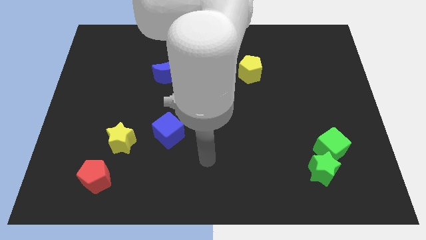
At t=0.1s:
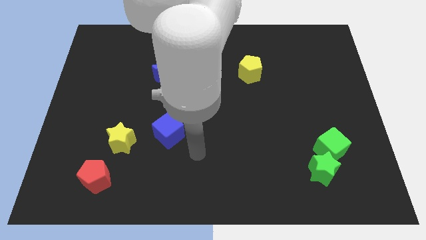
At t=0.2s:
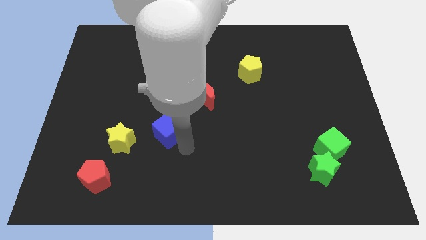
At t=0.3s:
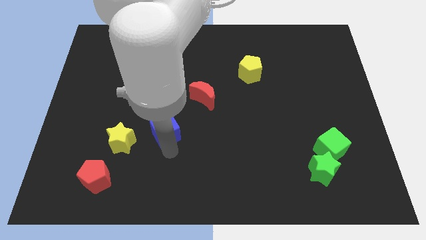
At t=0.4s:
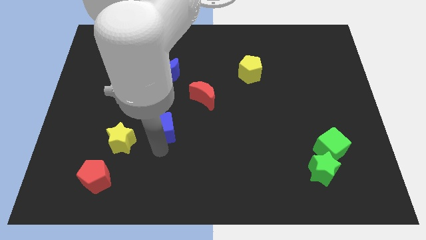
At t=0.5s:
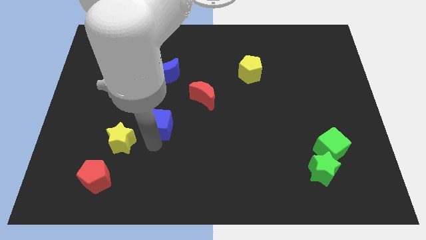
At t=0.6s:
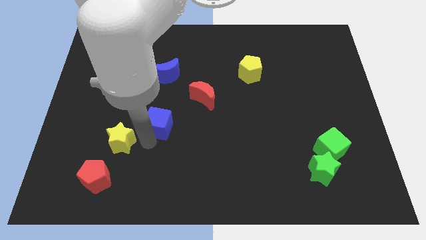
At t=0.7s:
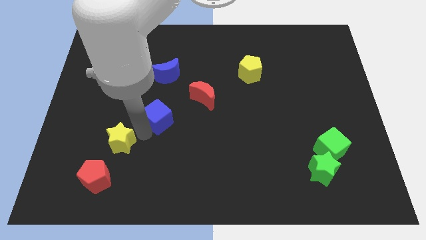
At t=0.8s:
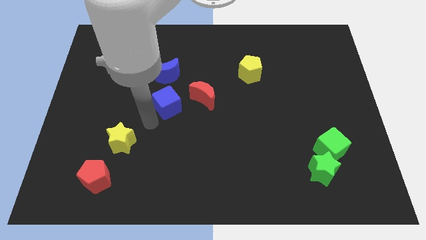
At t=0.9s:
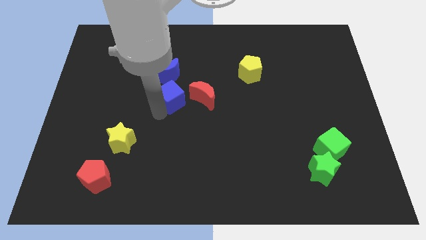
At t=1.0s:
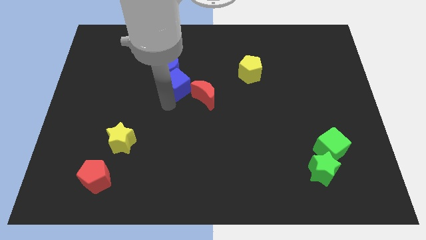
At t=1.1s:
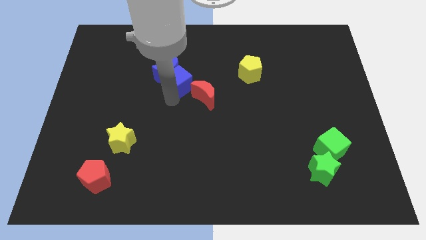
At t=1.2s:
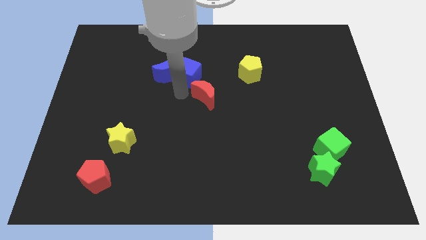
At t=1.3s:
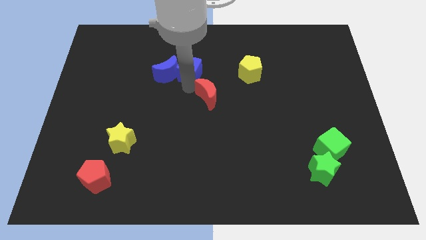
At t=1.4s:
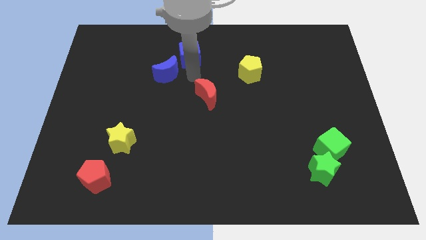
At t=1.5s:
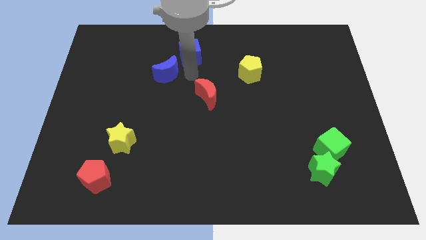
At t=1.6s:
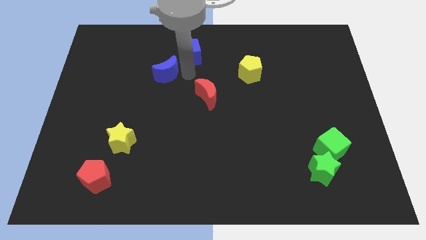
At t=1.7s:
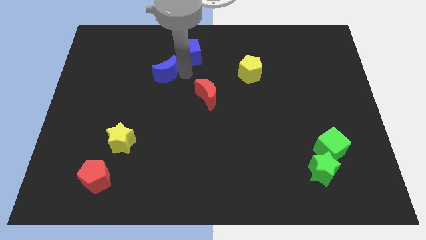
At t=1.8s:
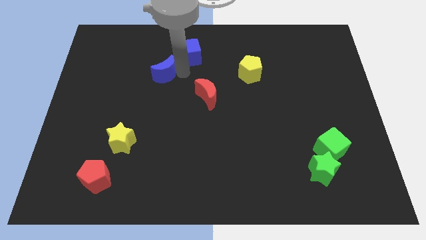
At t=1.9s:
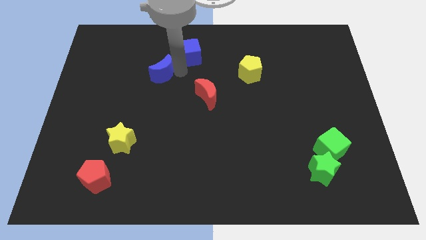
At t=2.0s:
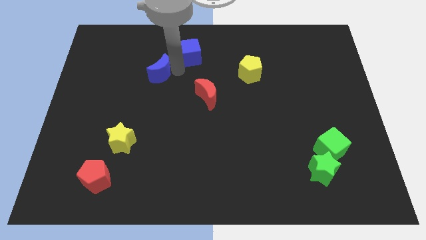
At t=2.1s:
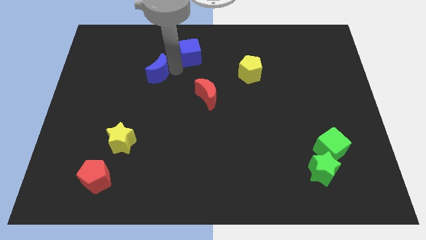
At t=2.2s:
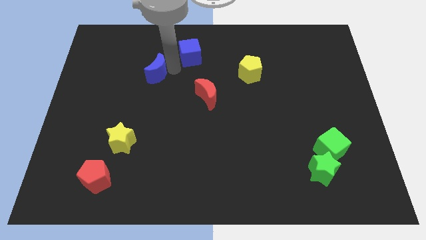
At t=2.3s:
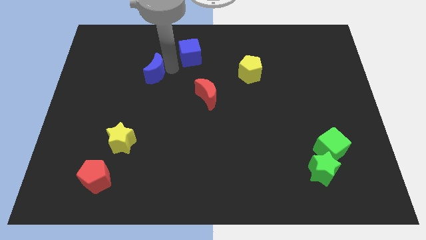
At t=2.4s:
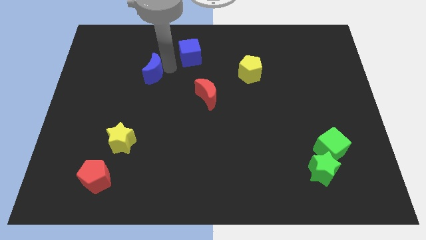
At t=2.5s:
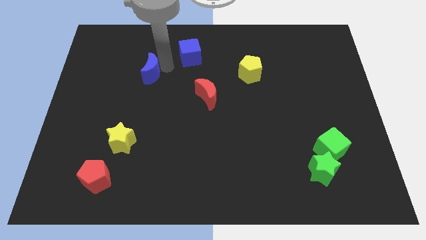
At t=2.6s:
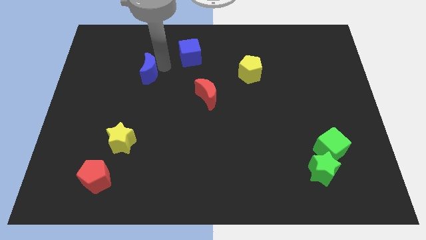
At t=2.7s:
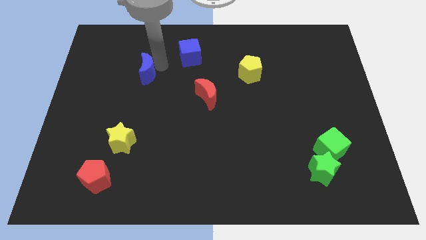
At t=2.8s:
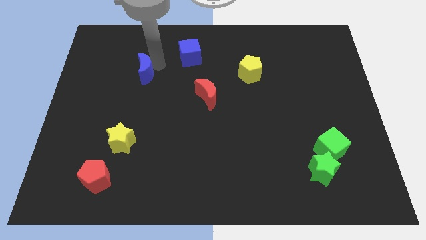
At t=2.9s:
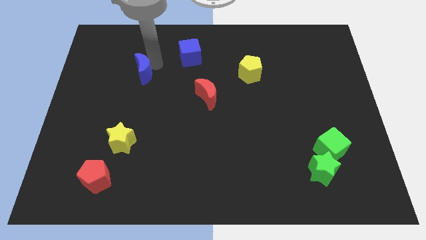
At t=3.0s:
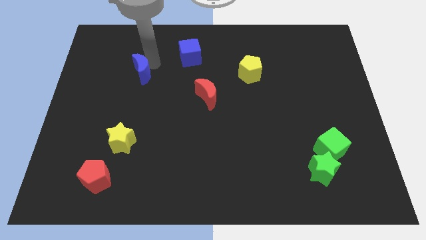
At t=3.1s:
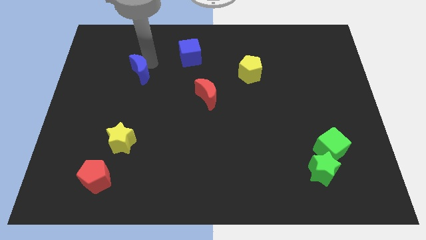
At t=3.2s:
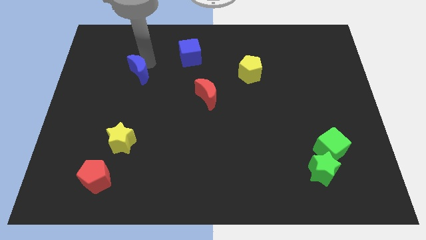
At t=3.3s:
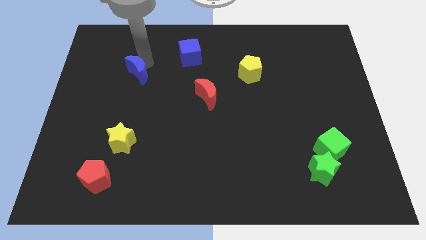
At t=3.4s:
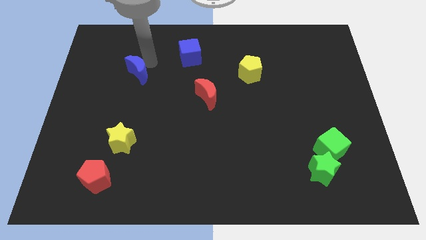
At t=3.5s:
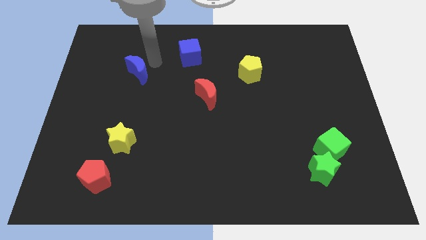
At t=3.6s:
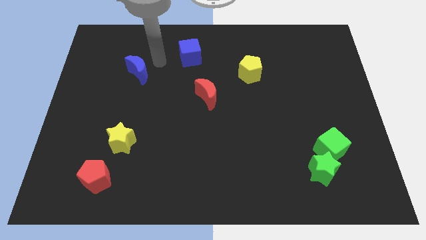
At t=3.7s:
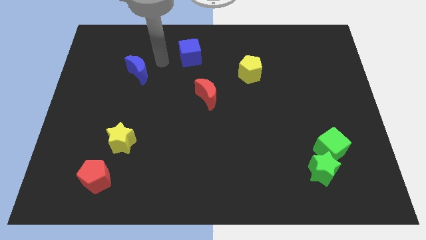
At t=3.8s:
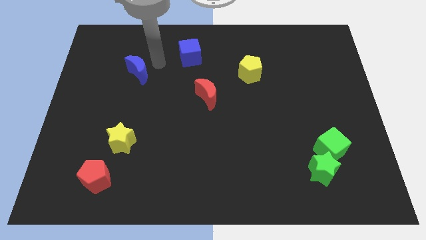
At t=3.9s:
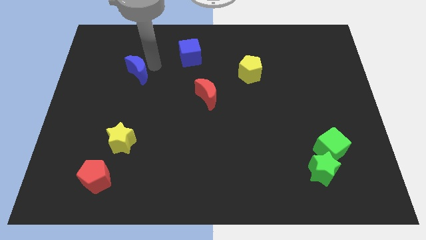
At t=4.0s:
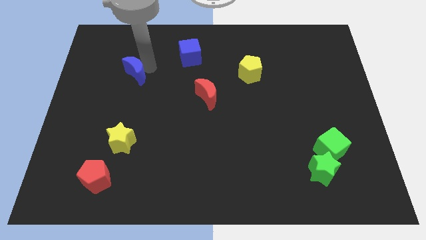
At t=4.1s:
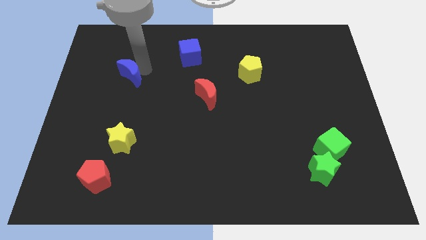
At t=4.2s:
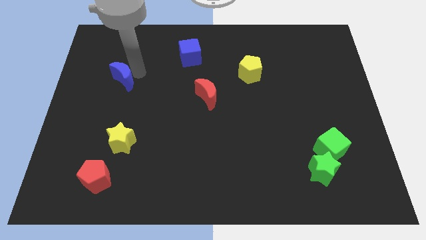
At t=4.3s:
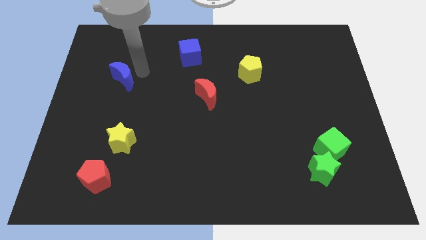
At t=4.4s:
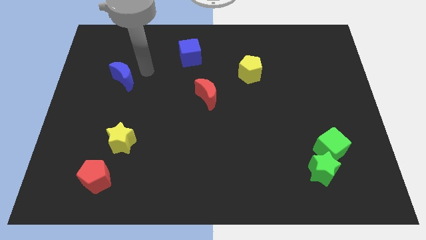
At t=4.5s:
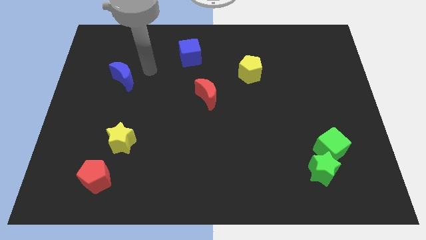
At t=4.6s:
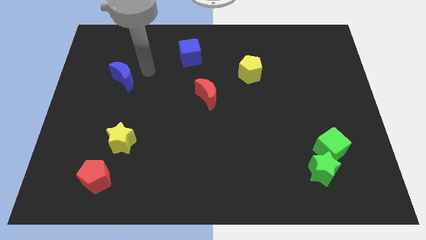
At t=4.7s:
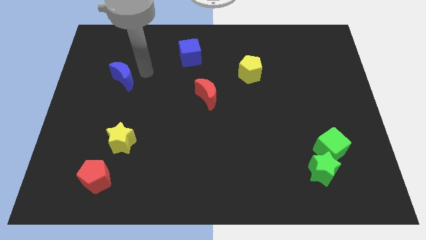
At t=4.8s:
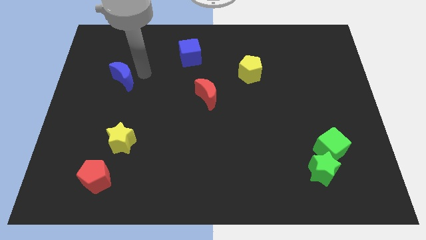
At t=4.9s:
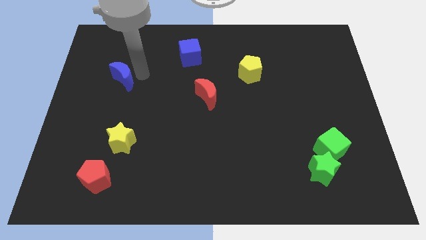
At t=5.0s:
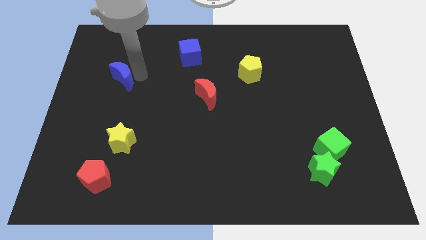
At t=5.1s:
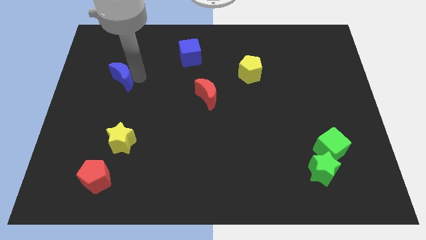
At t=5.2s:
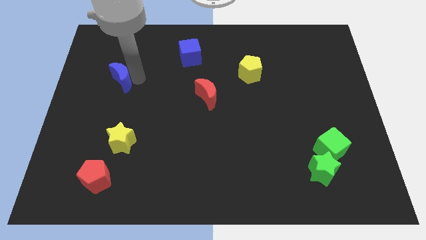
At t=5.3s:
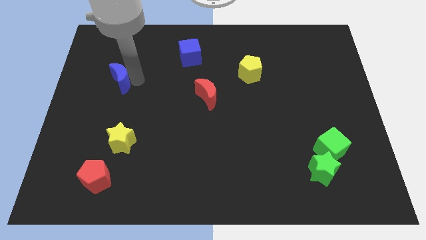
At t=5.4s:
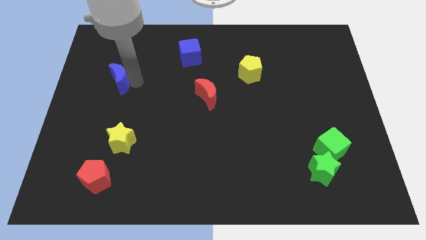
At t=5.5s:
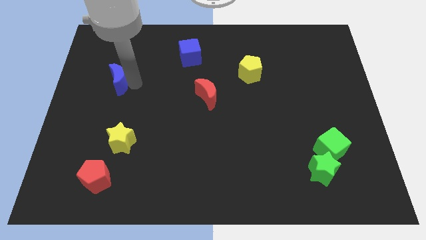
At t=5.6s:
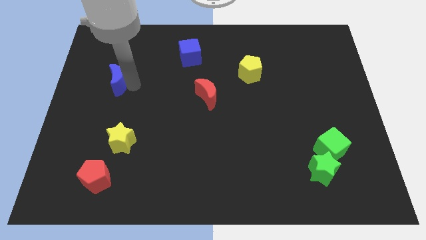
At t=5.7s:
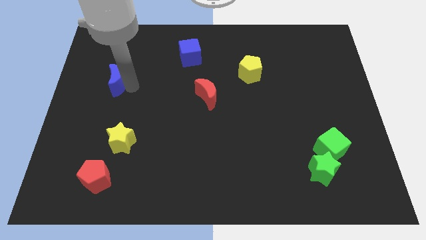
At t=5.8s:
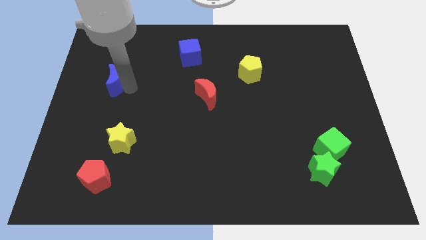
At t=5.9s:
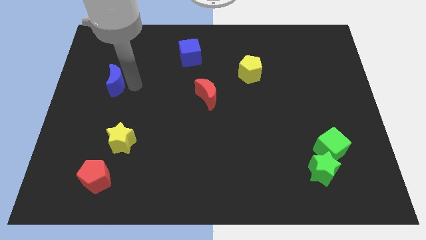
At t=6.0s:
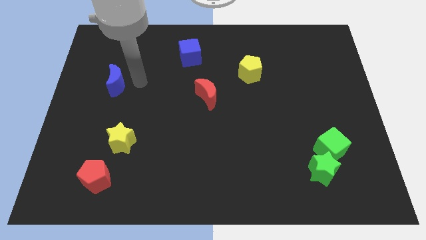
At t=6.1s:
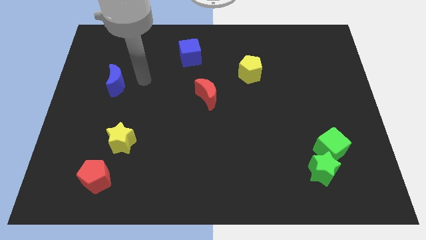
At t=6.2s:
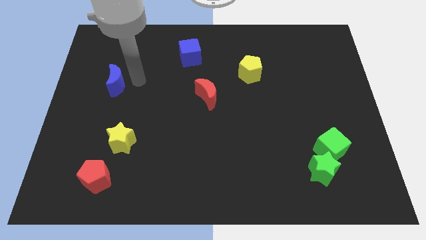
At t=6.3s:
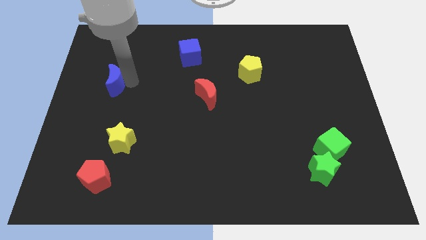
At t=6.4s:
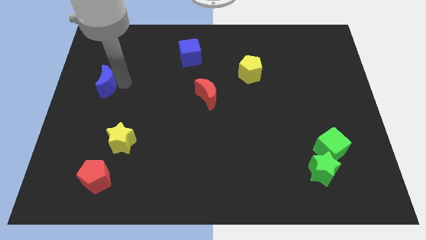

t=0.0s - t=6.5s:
put the blue moon to the left side of the board

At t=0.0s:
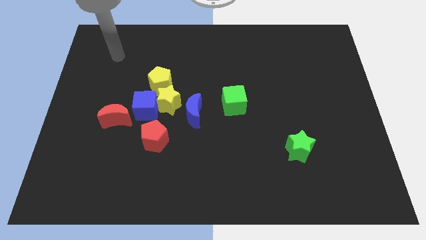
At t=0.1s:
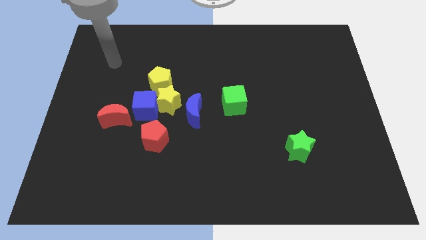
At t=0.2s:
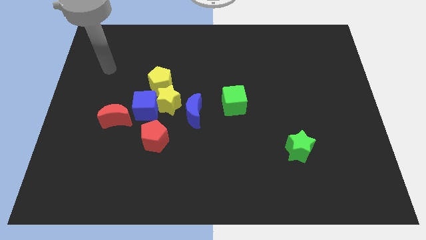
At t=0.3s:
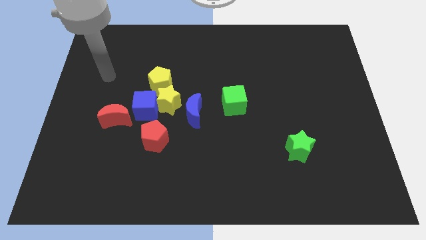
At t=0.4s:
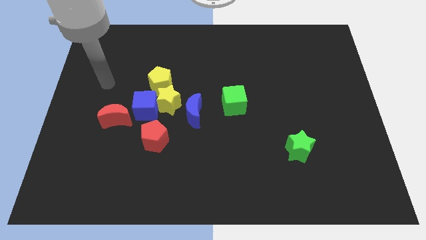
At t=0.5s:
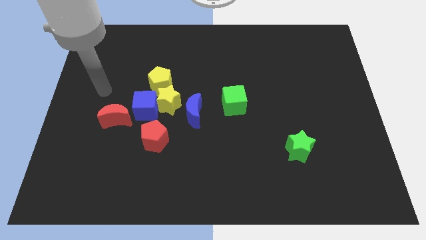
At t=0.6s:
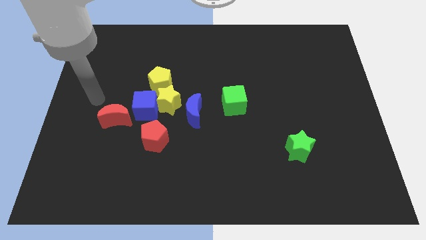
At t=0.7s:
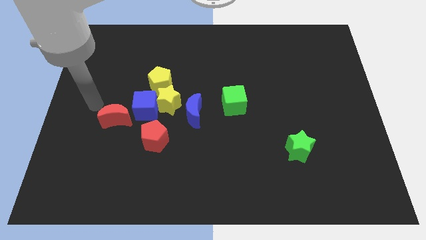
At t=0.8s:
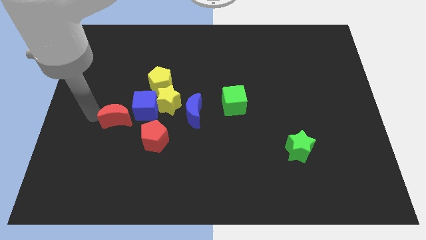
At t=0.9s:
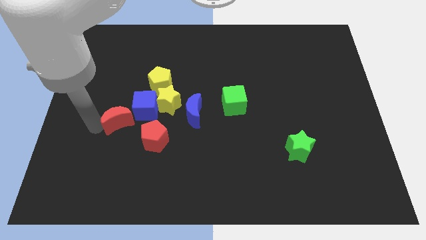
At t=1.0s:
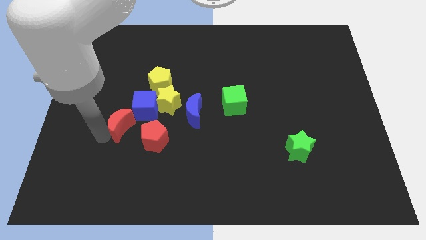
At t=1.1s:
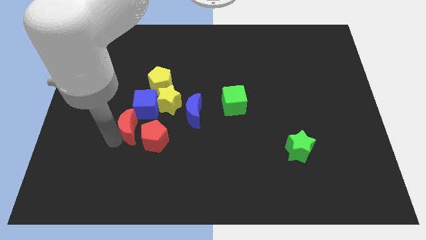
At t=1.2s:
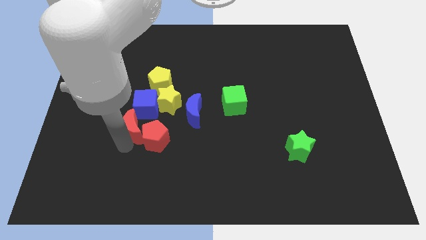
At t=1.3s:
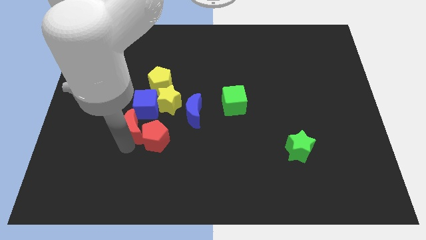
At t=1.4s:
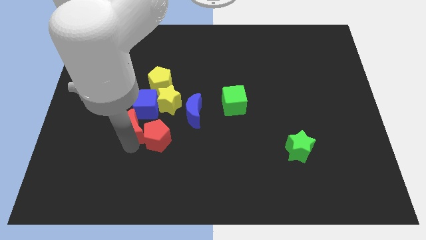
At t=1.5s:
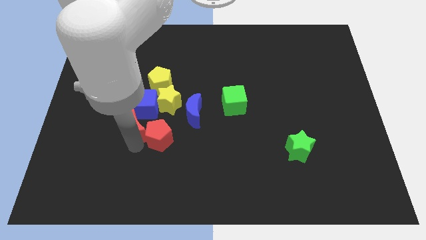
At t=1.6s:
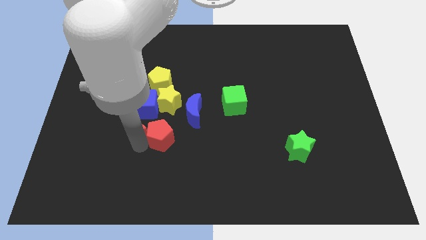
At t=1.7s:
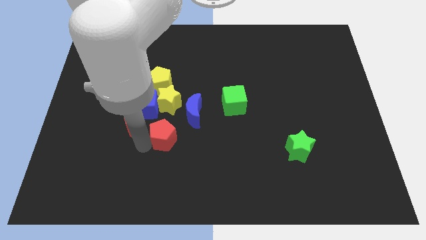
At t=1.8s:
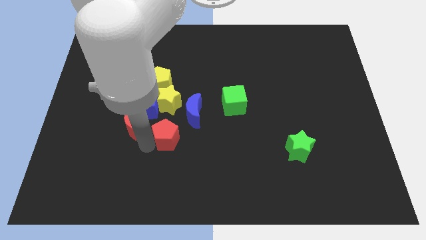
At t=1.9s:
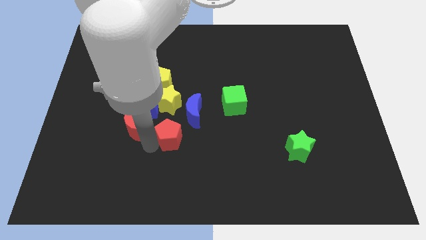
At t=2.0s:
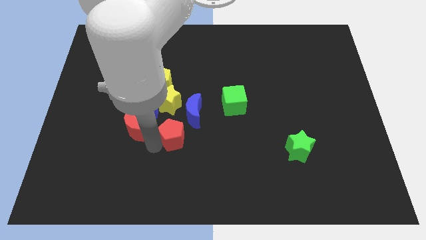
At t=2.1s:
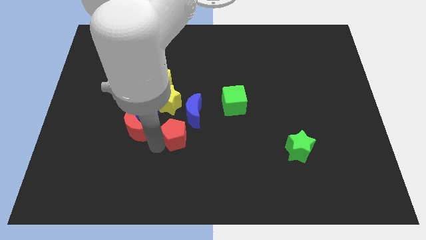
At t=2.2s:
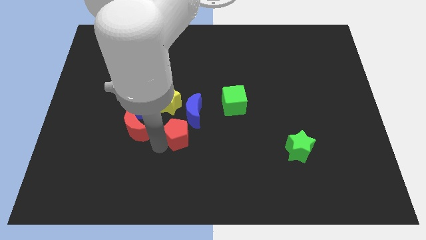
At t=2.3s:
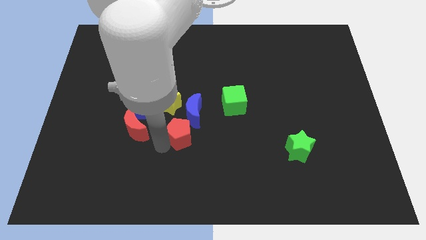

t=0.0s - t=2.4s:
push the red pentagon to the middle
